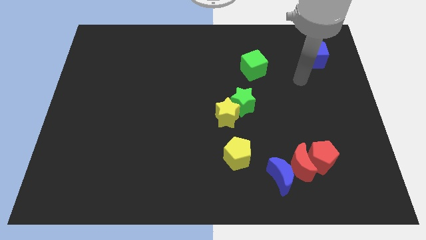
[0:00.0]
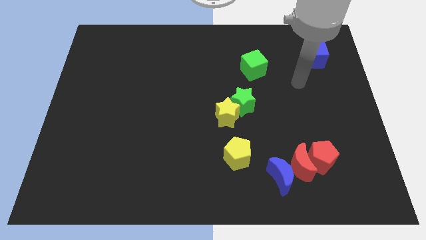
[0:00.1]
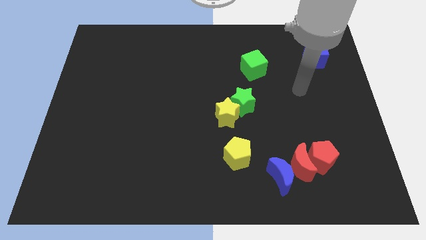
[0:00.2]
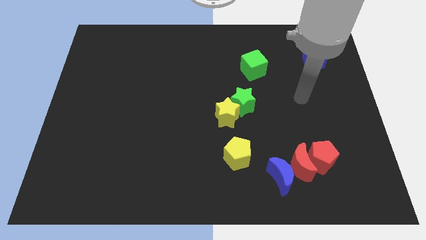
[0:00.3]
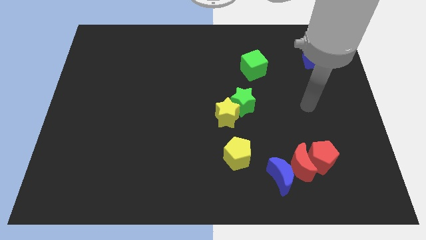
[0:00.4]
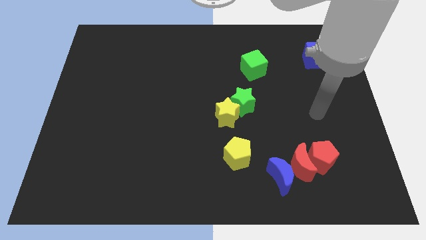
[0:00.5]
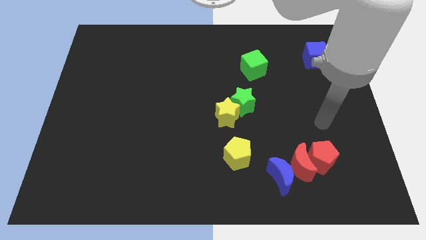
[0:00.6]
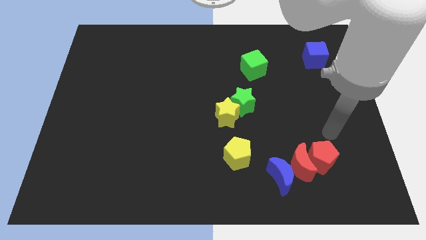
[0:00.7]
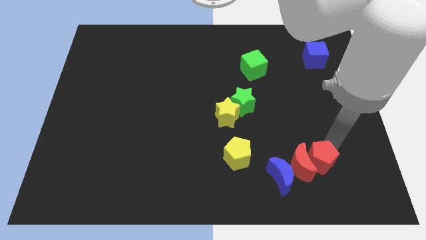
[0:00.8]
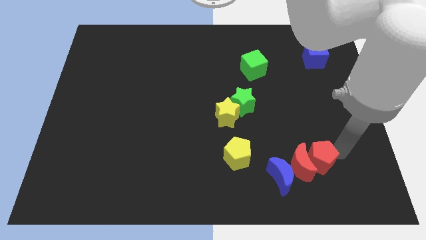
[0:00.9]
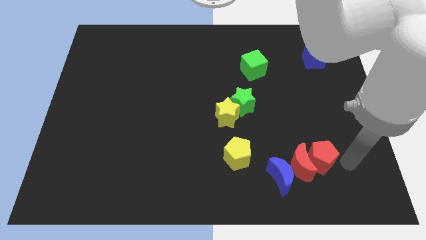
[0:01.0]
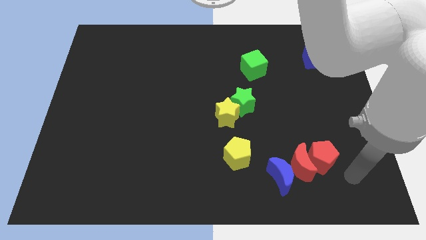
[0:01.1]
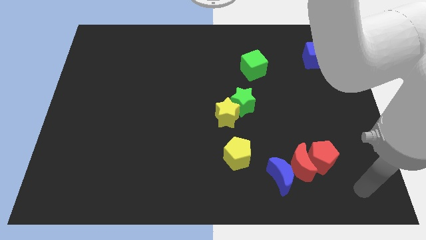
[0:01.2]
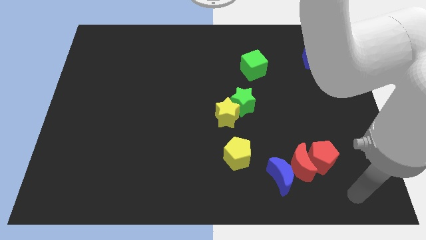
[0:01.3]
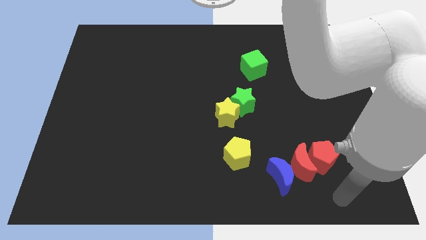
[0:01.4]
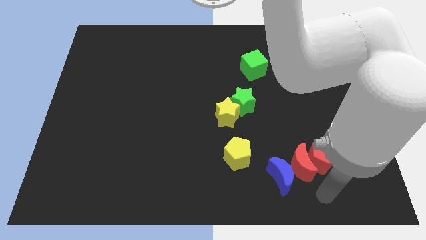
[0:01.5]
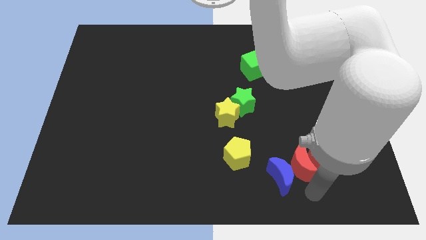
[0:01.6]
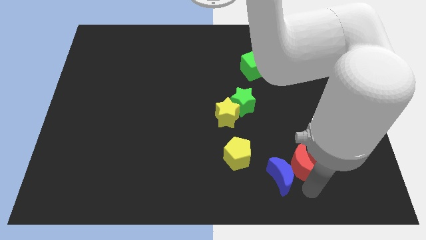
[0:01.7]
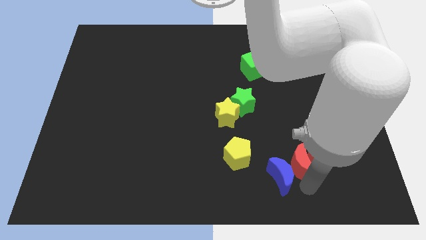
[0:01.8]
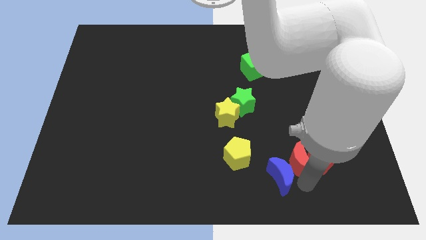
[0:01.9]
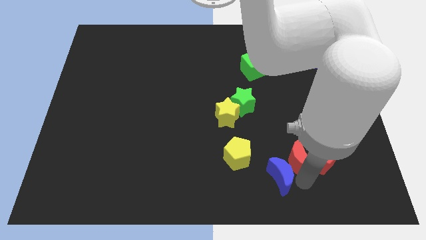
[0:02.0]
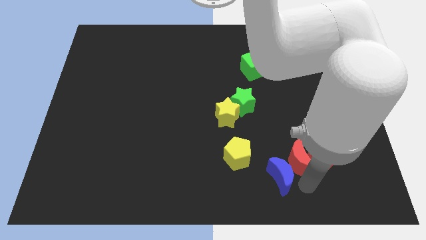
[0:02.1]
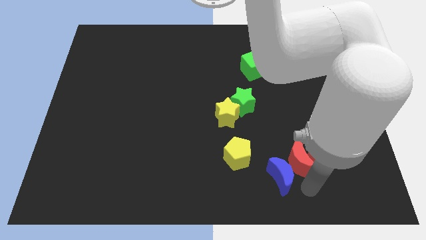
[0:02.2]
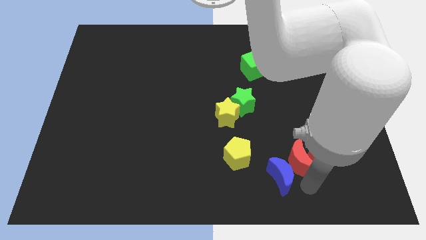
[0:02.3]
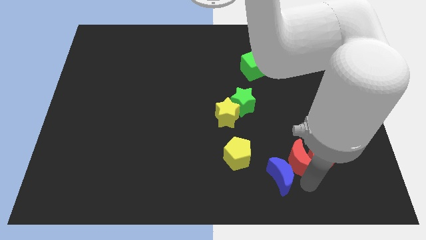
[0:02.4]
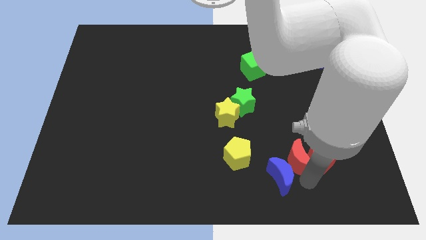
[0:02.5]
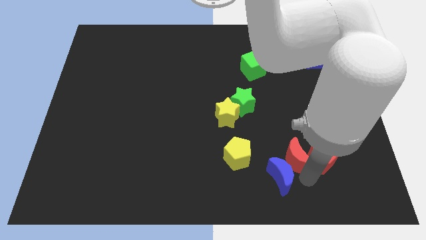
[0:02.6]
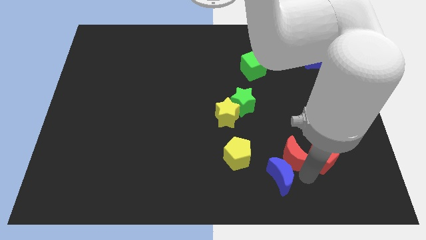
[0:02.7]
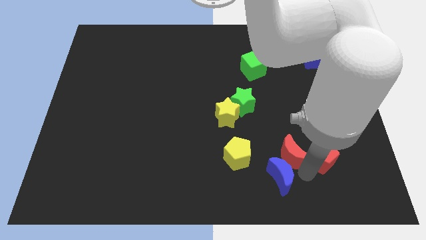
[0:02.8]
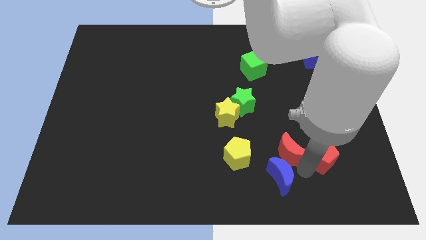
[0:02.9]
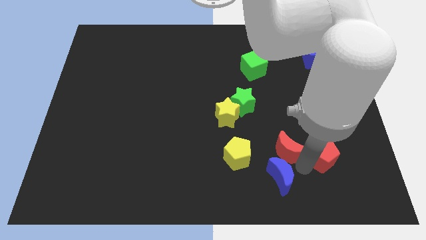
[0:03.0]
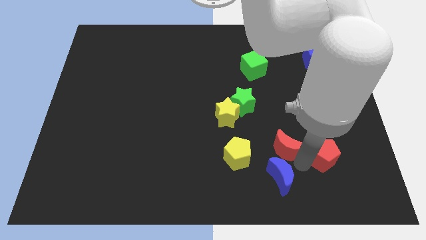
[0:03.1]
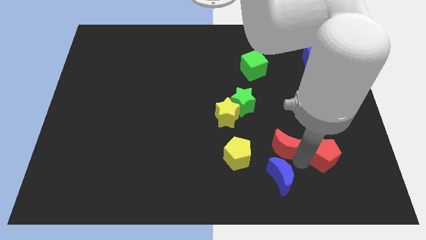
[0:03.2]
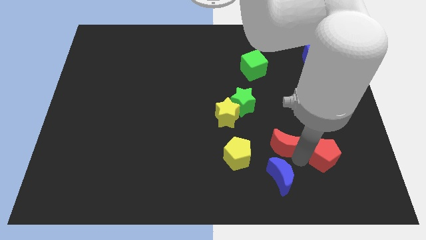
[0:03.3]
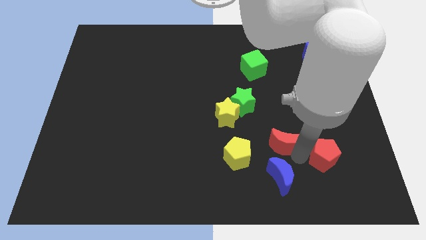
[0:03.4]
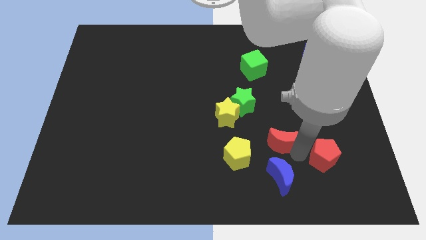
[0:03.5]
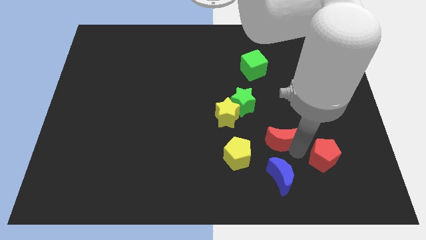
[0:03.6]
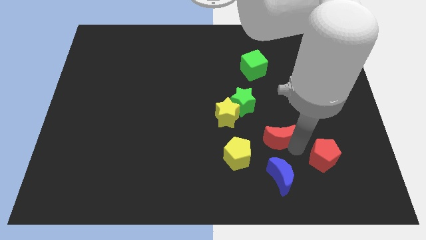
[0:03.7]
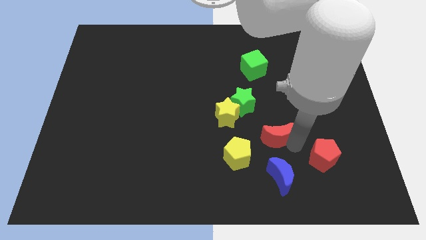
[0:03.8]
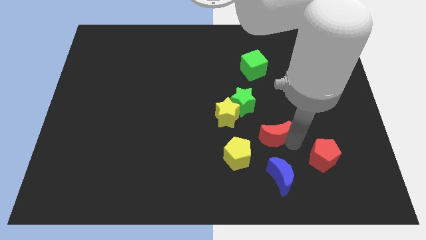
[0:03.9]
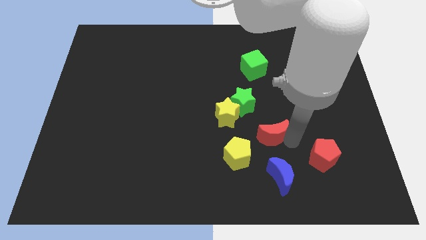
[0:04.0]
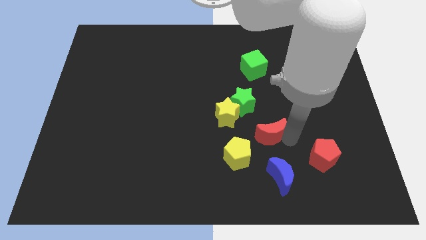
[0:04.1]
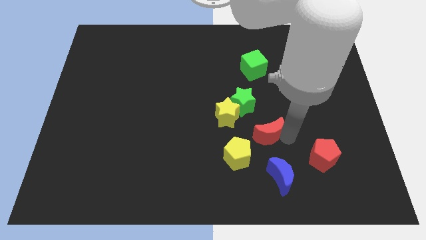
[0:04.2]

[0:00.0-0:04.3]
separate the red moon from the red pentagon and blue moon

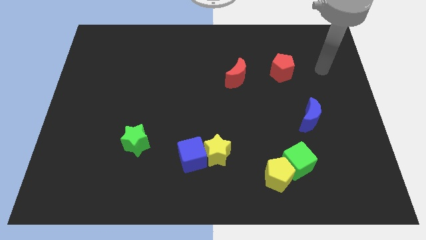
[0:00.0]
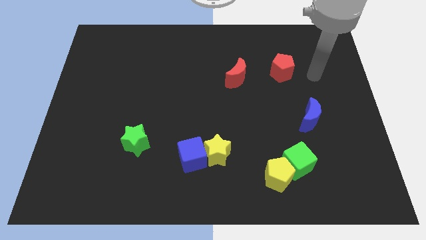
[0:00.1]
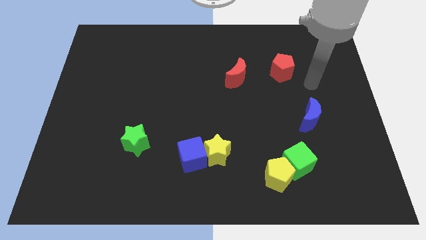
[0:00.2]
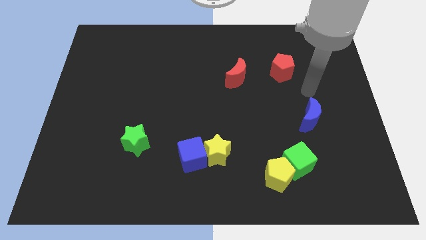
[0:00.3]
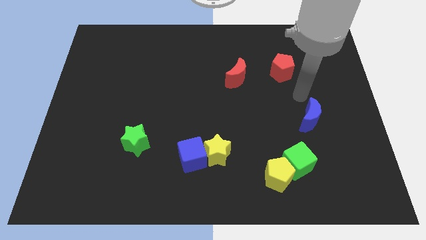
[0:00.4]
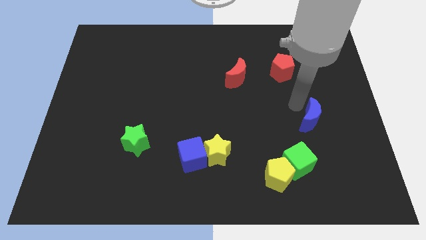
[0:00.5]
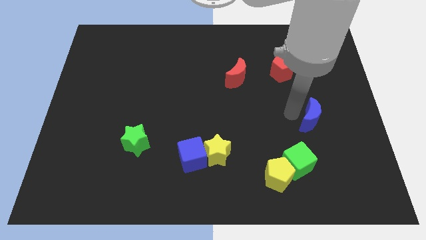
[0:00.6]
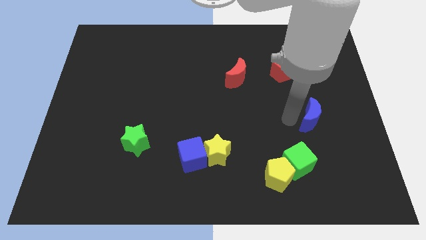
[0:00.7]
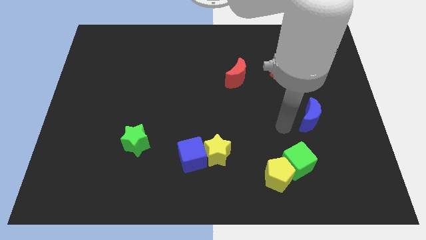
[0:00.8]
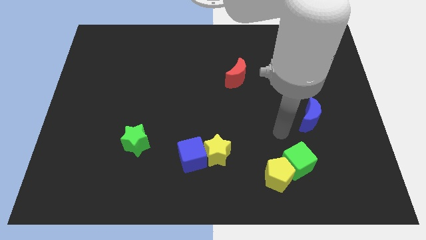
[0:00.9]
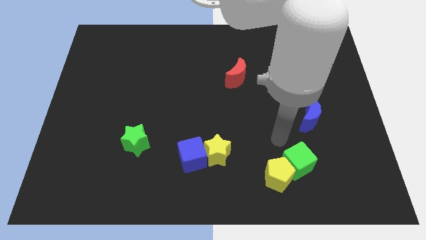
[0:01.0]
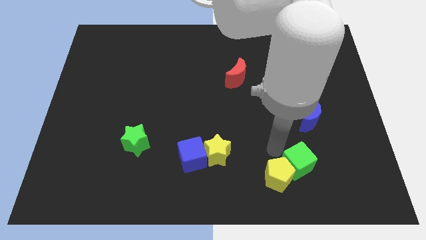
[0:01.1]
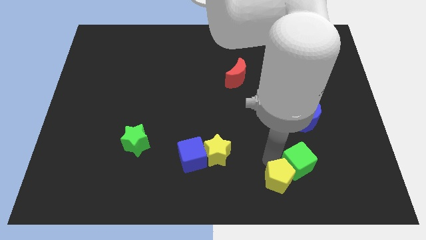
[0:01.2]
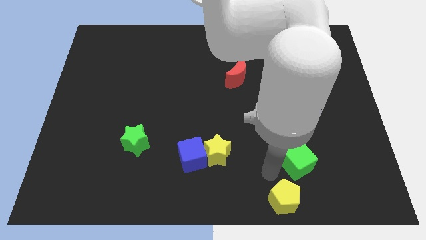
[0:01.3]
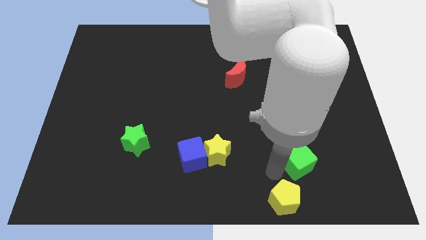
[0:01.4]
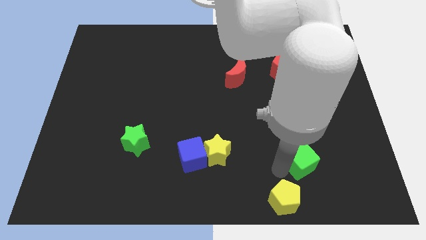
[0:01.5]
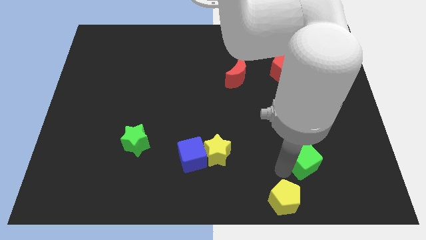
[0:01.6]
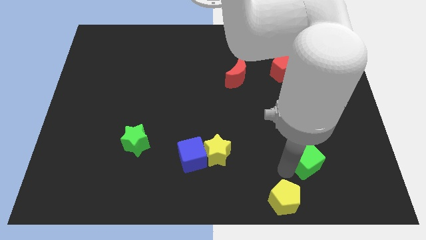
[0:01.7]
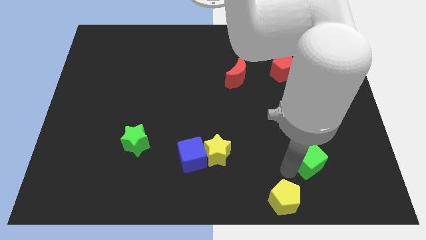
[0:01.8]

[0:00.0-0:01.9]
separate the green cube from the yellow pentagon

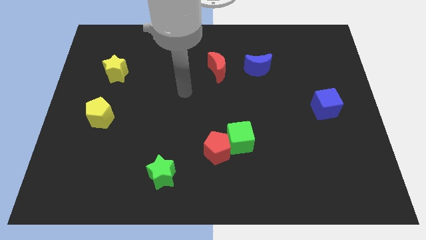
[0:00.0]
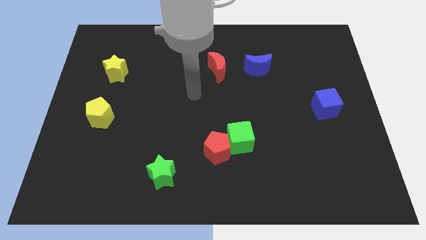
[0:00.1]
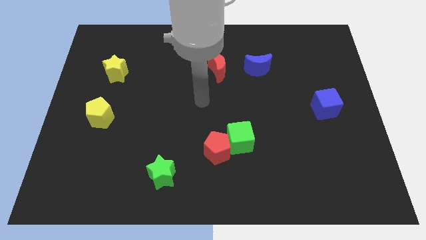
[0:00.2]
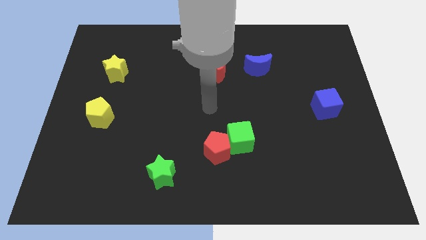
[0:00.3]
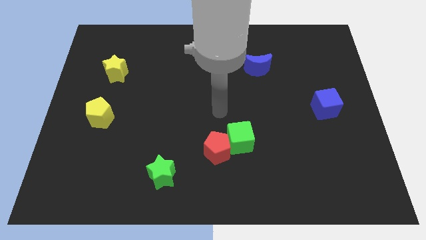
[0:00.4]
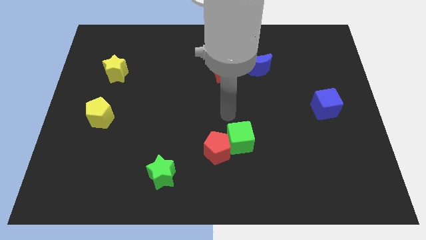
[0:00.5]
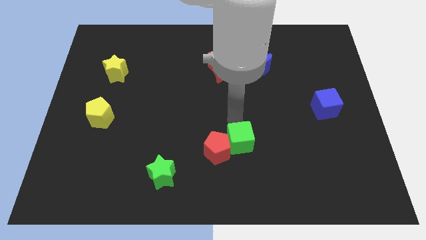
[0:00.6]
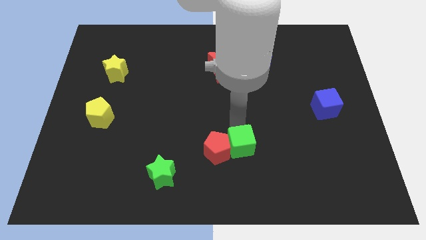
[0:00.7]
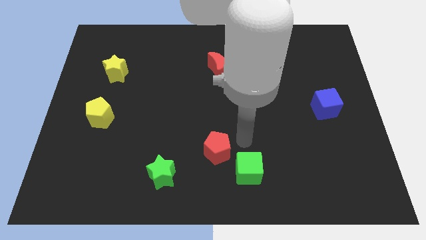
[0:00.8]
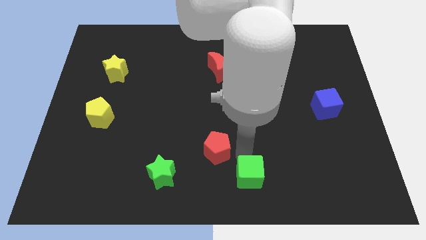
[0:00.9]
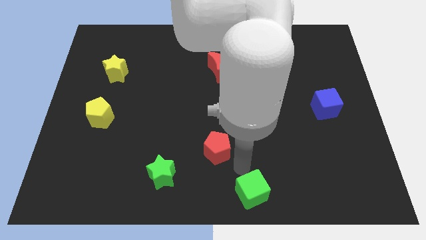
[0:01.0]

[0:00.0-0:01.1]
move the red pentagon away from the green cube

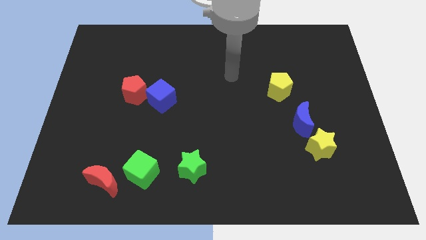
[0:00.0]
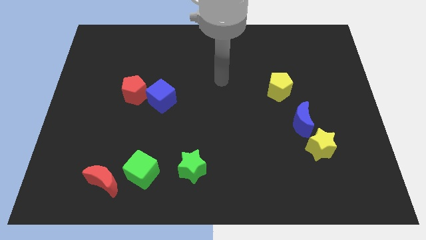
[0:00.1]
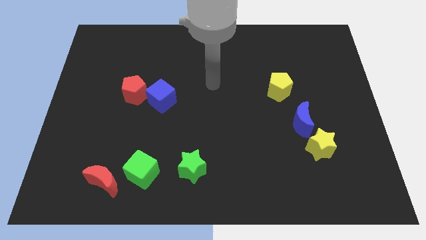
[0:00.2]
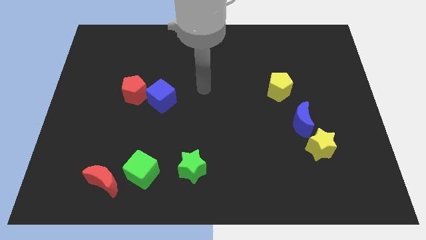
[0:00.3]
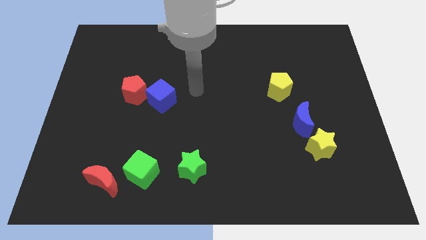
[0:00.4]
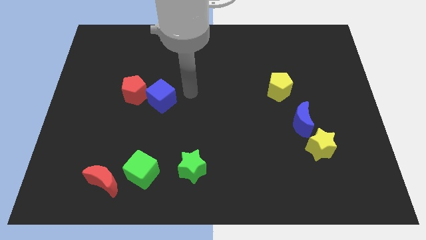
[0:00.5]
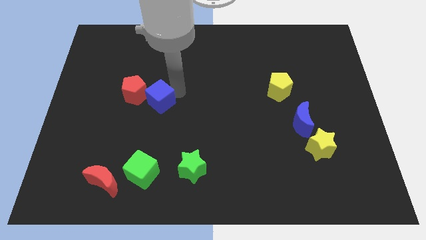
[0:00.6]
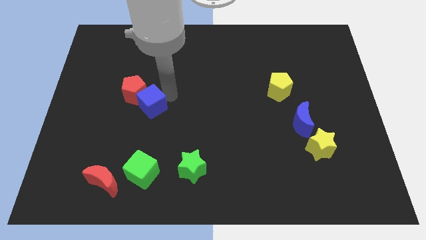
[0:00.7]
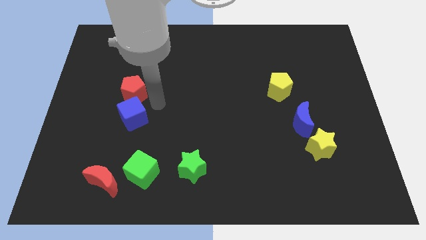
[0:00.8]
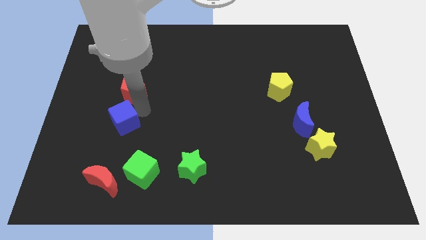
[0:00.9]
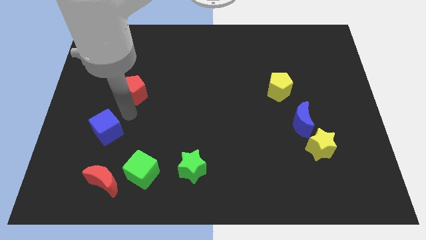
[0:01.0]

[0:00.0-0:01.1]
pull the red pentagon apart from the blue cube

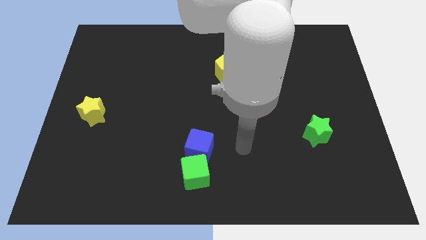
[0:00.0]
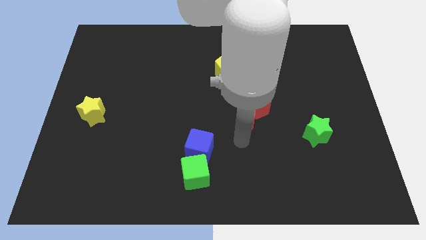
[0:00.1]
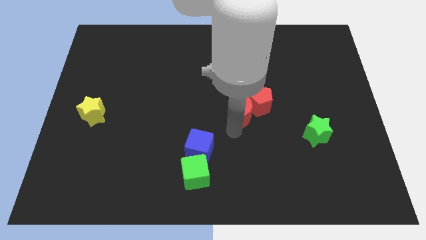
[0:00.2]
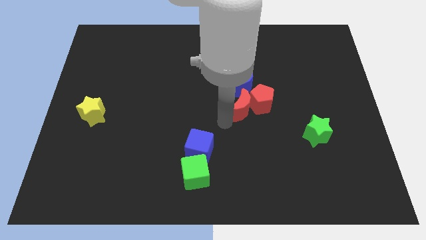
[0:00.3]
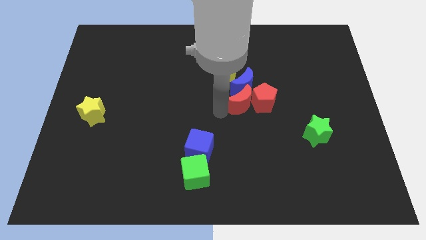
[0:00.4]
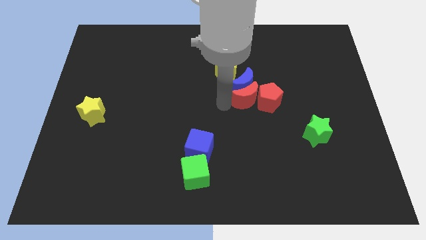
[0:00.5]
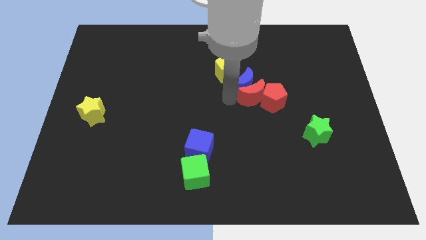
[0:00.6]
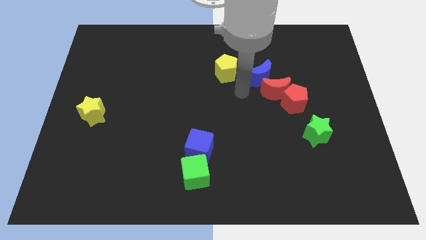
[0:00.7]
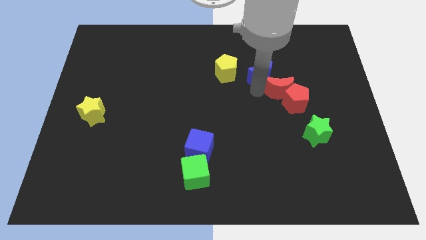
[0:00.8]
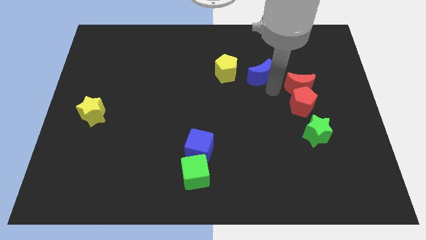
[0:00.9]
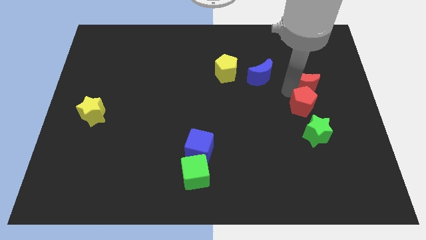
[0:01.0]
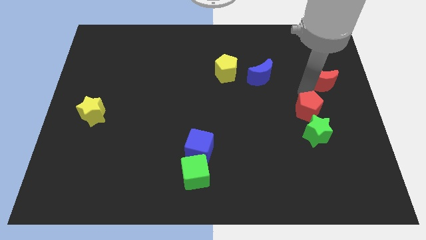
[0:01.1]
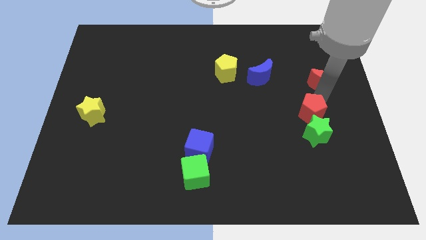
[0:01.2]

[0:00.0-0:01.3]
move the red pentagon away from the red moon and blue moon
